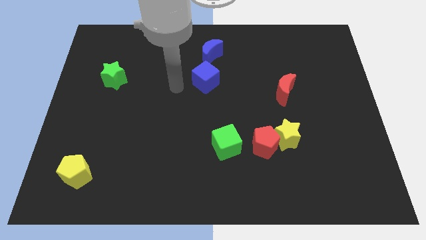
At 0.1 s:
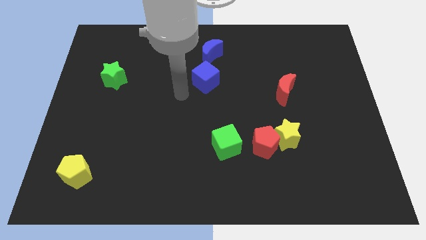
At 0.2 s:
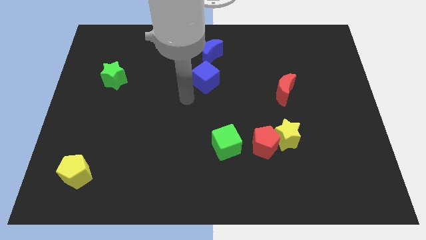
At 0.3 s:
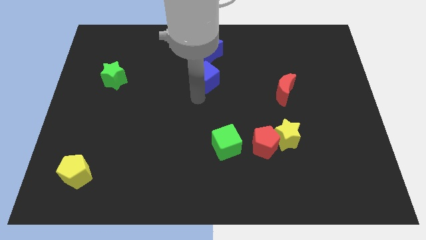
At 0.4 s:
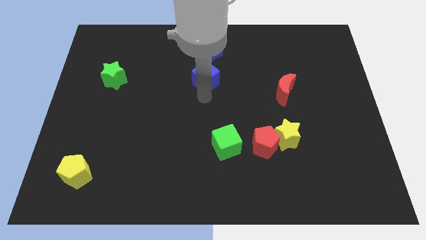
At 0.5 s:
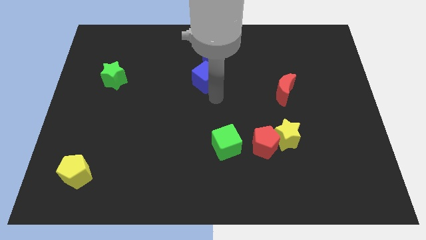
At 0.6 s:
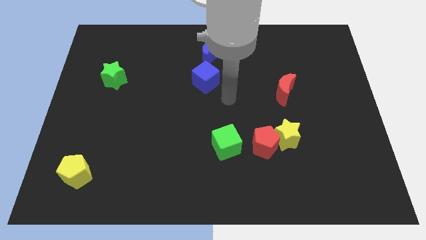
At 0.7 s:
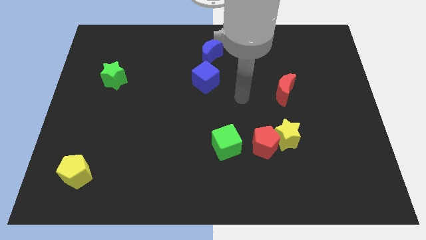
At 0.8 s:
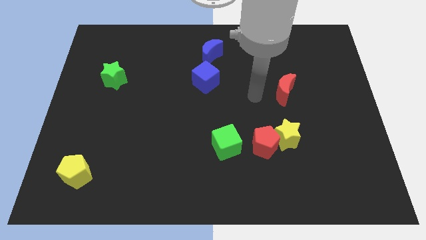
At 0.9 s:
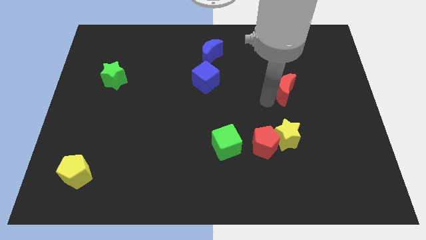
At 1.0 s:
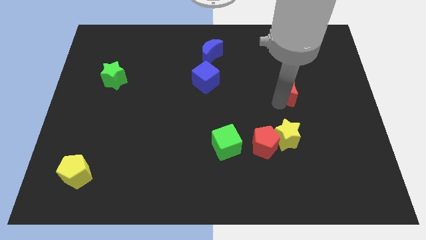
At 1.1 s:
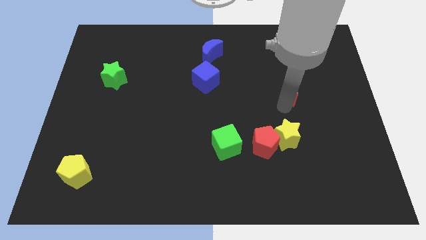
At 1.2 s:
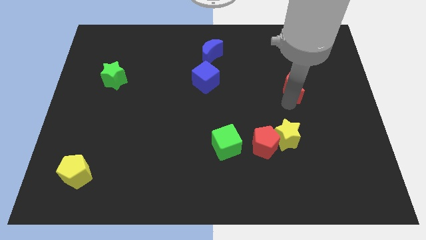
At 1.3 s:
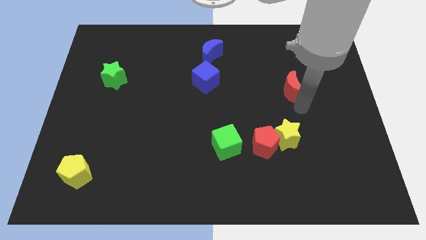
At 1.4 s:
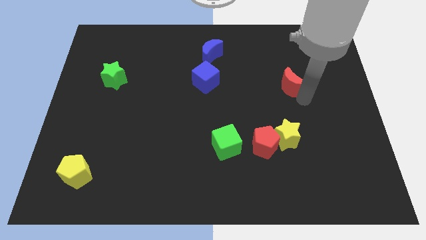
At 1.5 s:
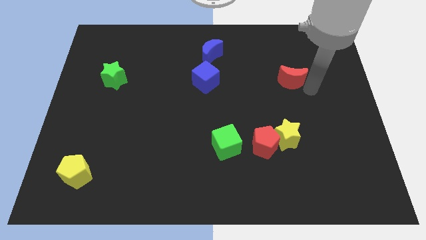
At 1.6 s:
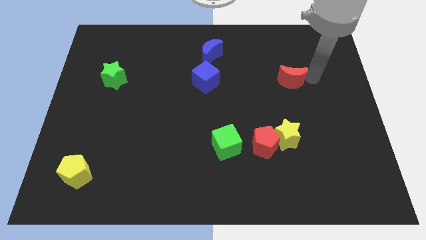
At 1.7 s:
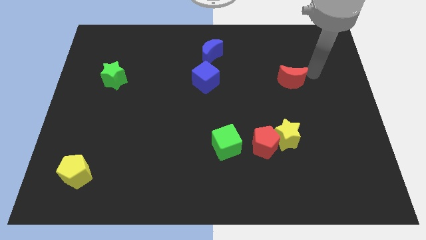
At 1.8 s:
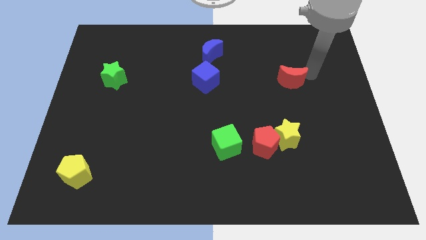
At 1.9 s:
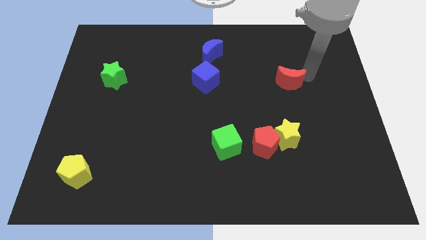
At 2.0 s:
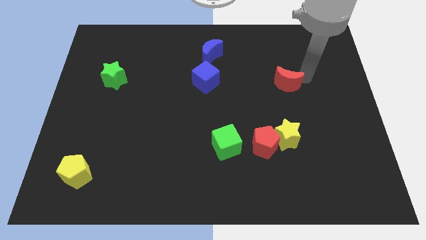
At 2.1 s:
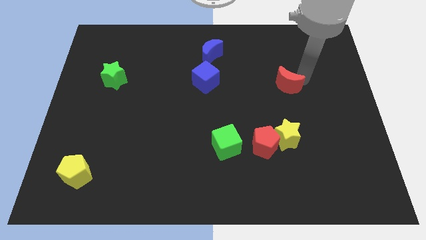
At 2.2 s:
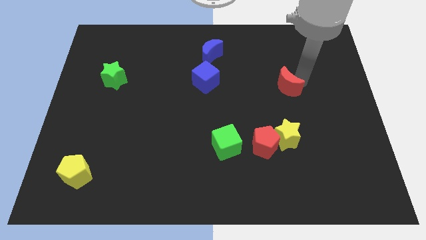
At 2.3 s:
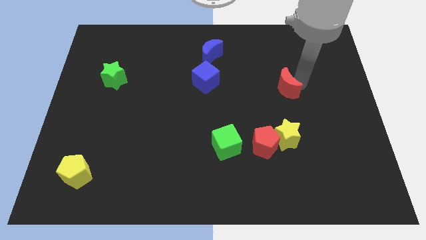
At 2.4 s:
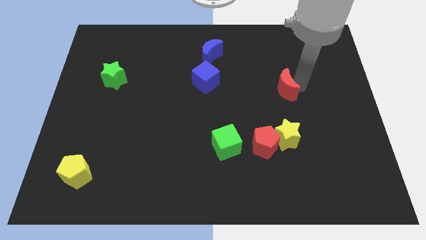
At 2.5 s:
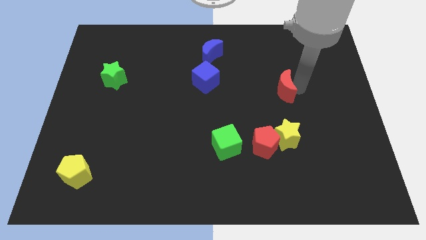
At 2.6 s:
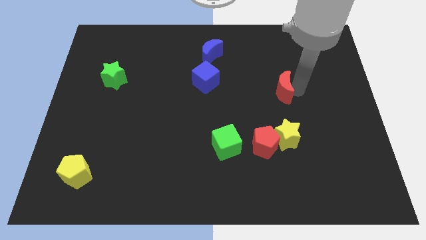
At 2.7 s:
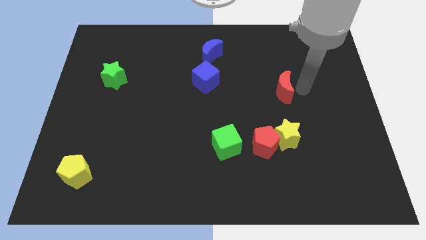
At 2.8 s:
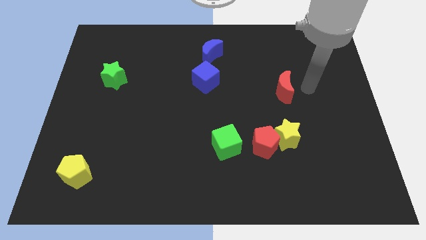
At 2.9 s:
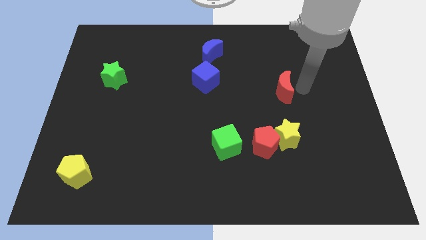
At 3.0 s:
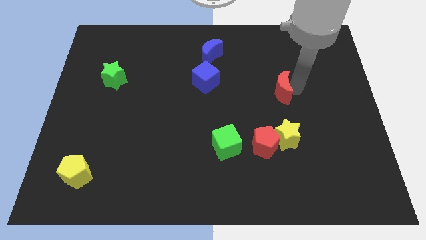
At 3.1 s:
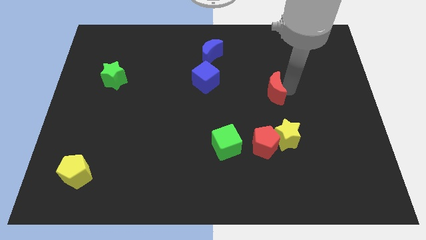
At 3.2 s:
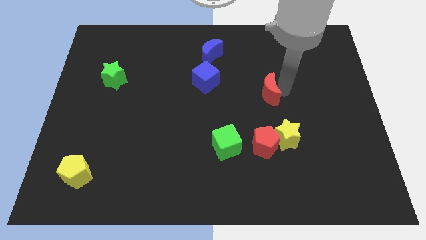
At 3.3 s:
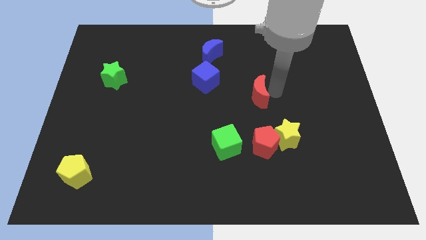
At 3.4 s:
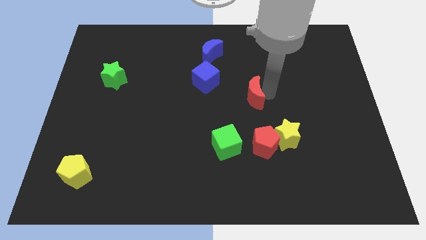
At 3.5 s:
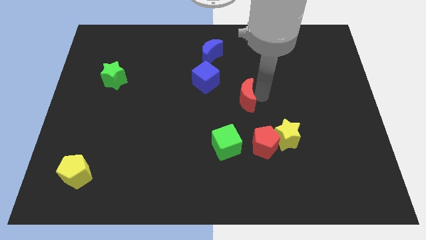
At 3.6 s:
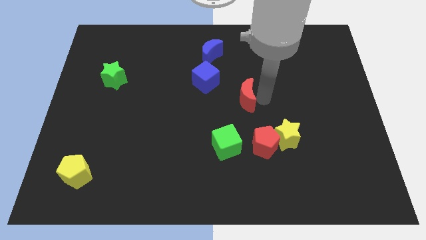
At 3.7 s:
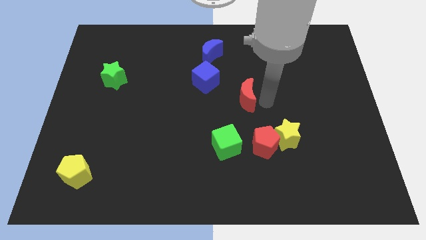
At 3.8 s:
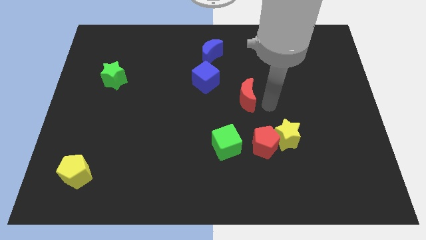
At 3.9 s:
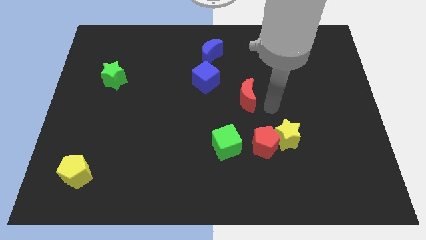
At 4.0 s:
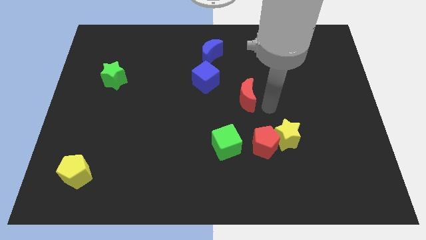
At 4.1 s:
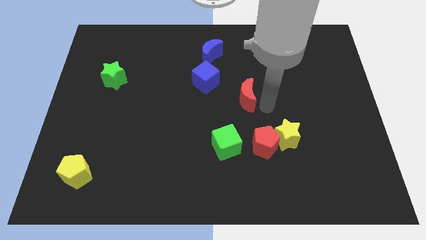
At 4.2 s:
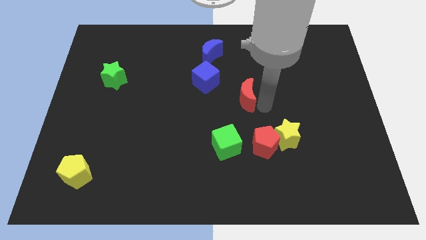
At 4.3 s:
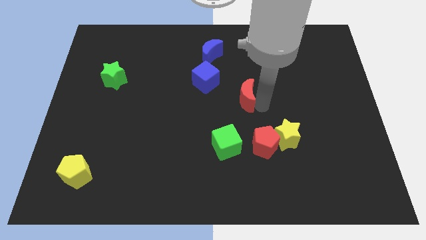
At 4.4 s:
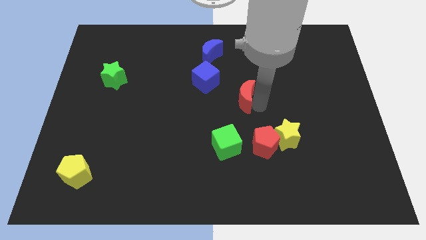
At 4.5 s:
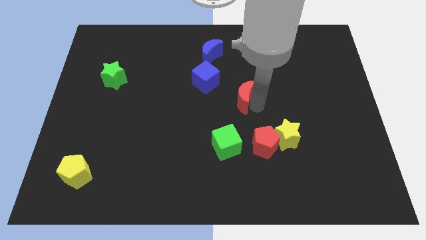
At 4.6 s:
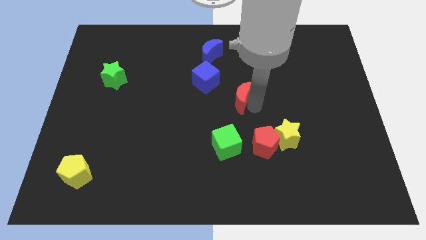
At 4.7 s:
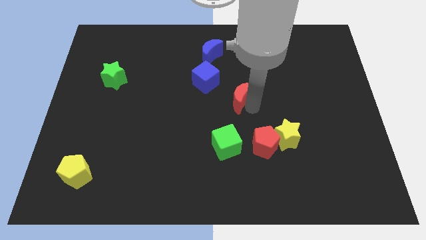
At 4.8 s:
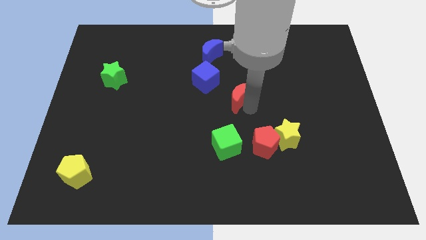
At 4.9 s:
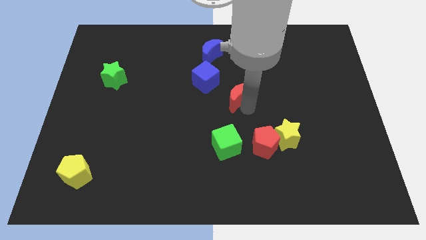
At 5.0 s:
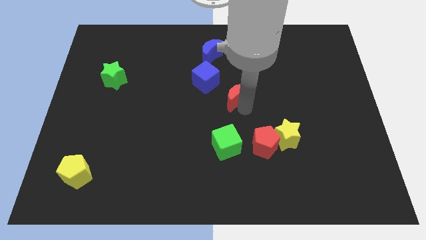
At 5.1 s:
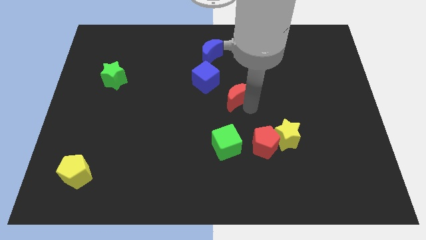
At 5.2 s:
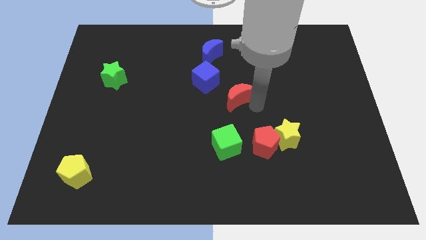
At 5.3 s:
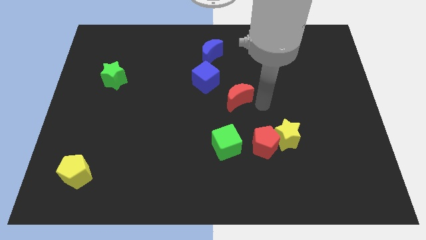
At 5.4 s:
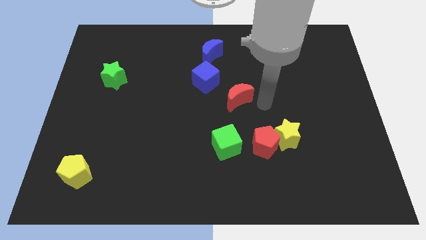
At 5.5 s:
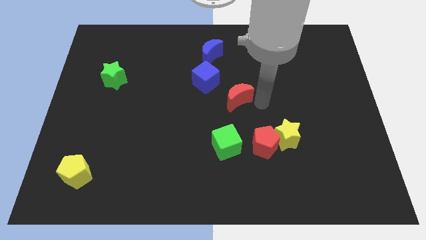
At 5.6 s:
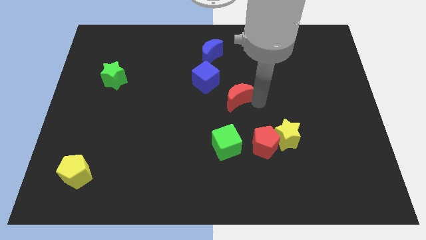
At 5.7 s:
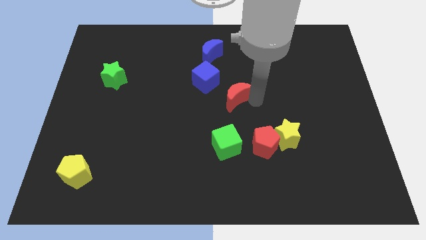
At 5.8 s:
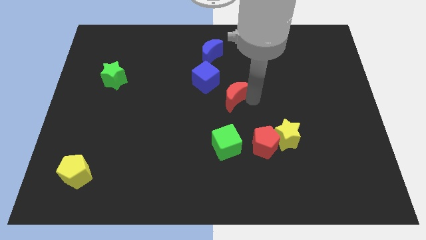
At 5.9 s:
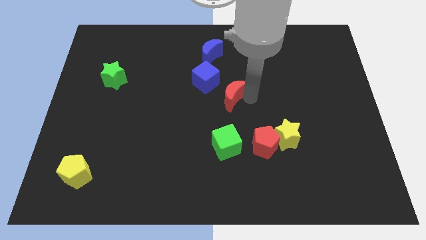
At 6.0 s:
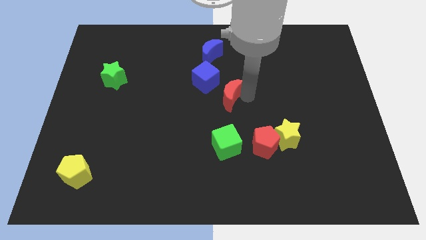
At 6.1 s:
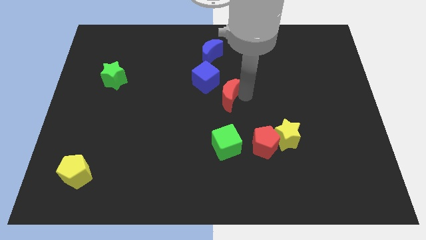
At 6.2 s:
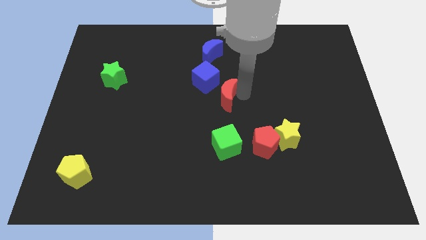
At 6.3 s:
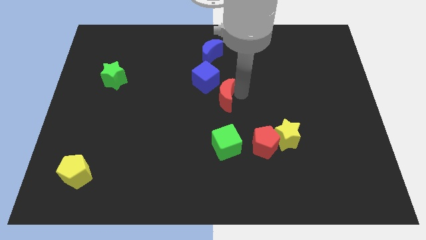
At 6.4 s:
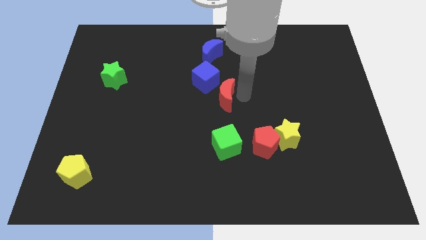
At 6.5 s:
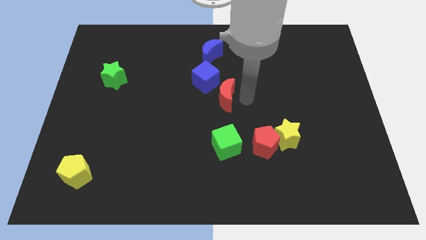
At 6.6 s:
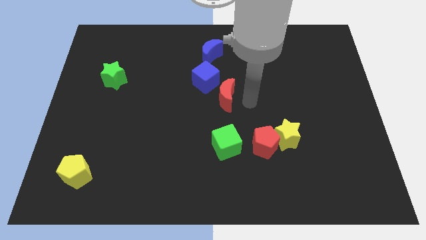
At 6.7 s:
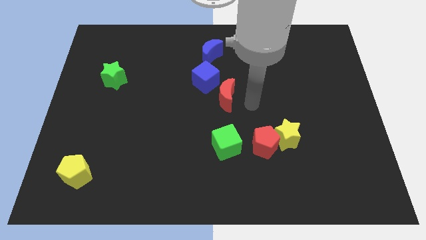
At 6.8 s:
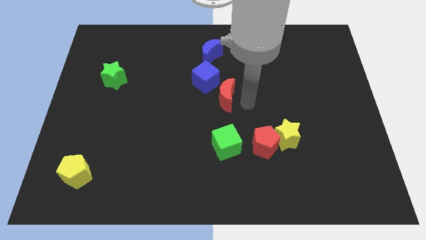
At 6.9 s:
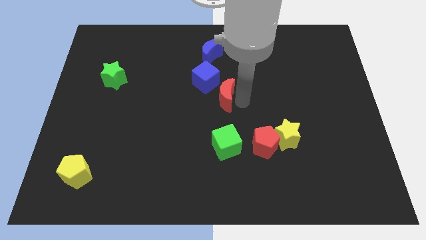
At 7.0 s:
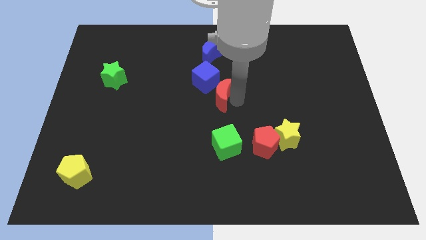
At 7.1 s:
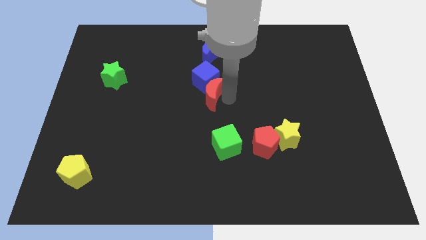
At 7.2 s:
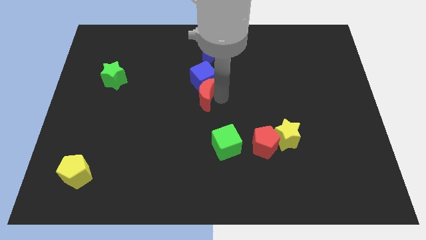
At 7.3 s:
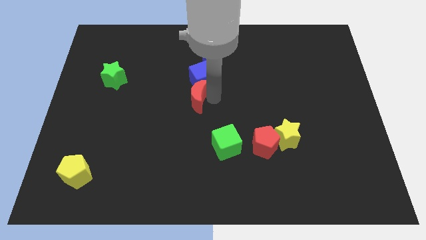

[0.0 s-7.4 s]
slide the red moon left

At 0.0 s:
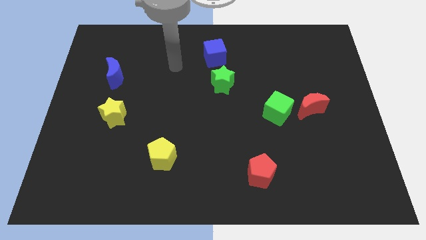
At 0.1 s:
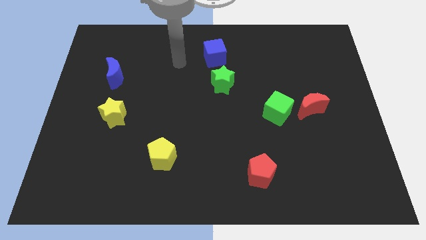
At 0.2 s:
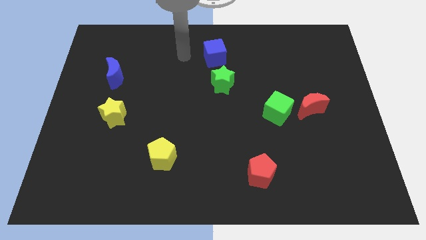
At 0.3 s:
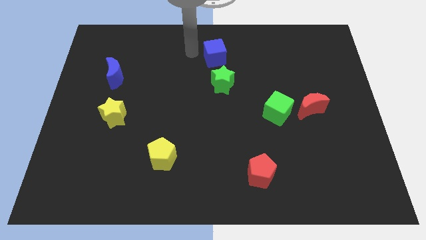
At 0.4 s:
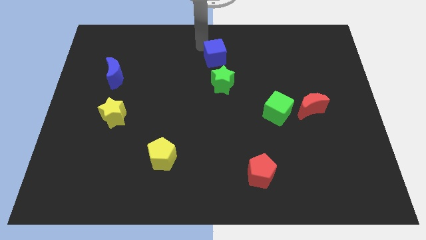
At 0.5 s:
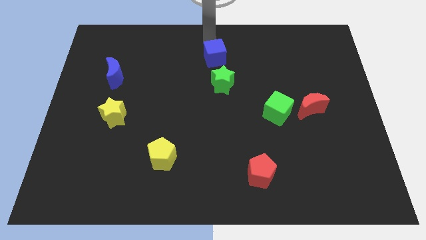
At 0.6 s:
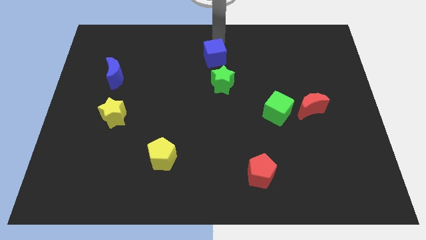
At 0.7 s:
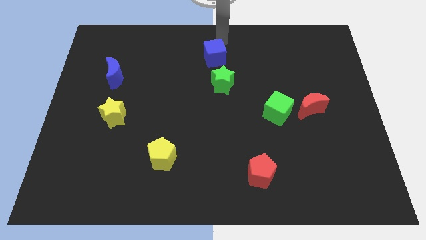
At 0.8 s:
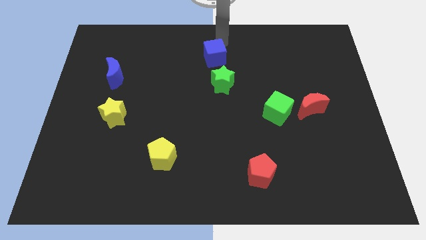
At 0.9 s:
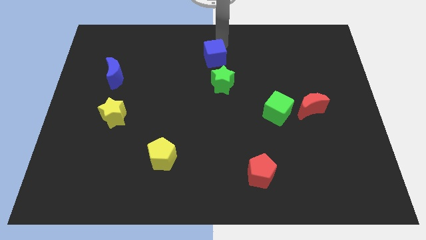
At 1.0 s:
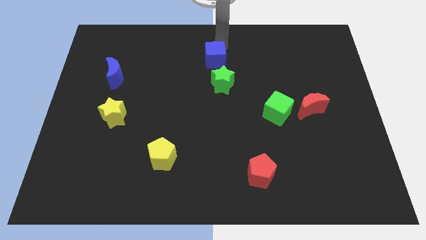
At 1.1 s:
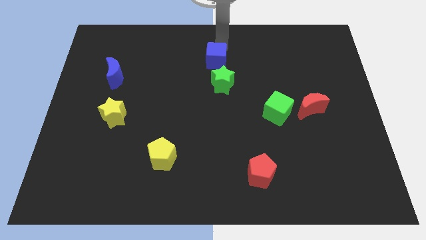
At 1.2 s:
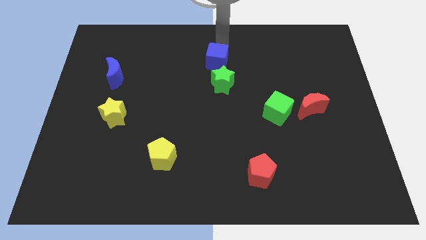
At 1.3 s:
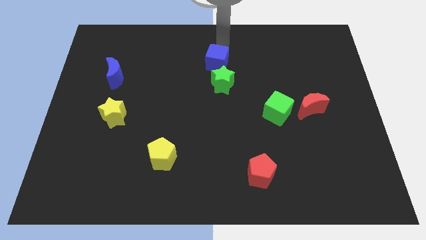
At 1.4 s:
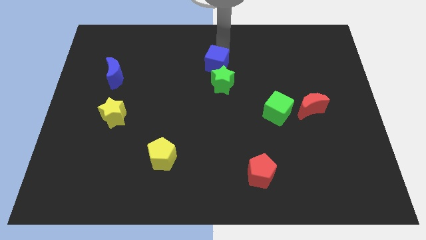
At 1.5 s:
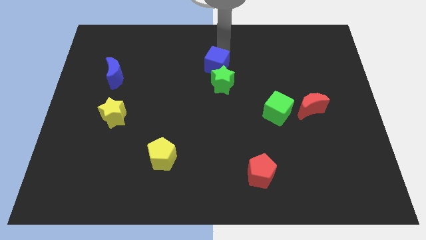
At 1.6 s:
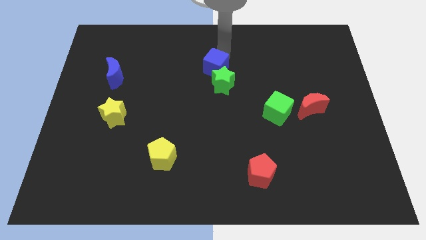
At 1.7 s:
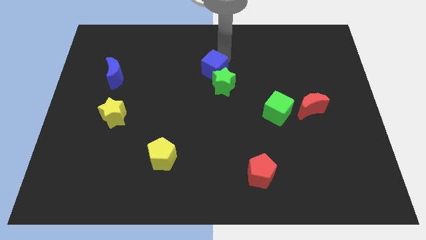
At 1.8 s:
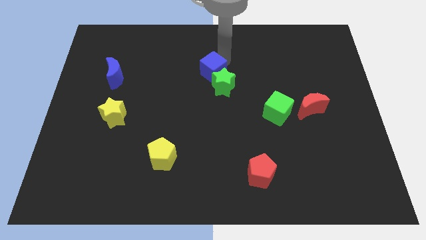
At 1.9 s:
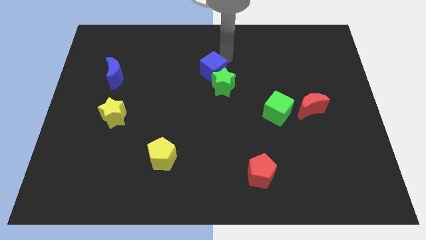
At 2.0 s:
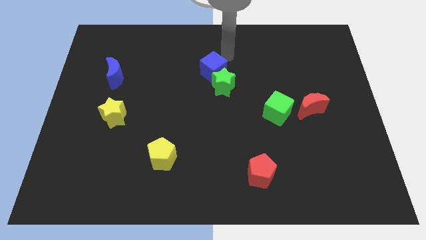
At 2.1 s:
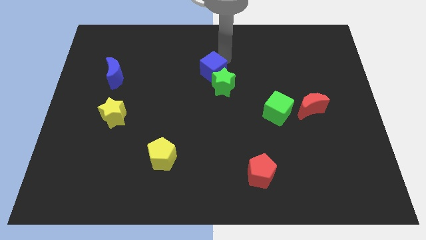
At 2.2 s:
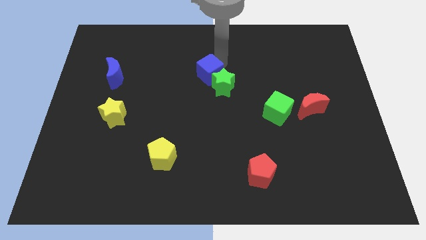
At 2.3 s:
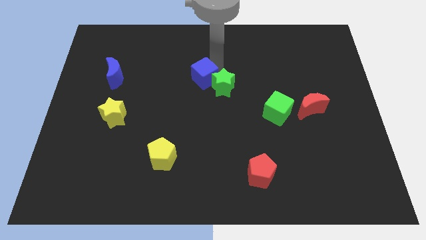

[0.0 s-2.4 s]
push the blue cube a bit downwards
